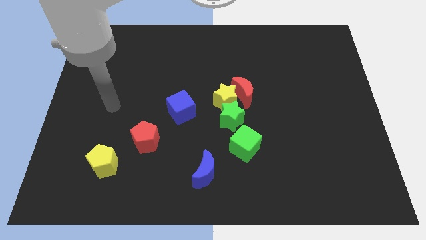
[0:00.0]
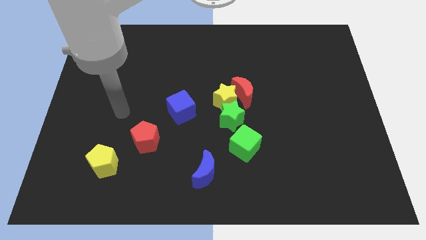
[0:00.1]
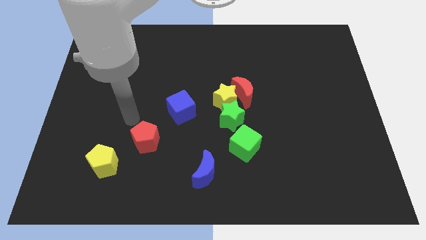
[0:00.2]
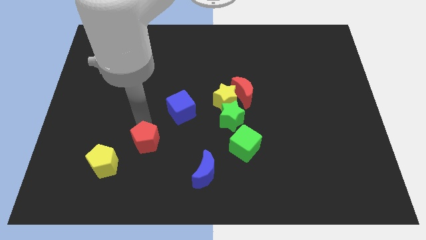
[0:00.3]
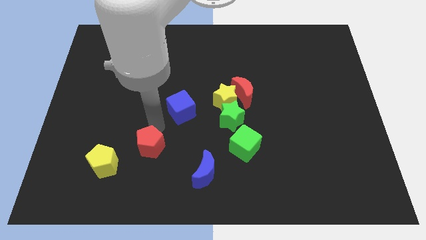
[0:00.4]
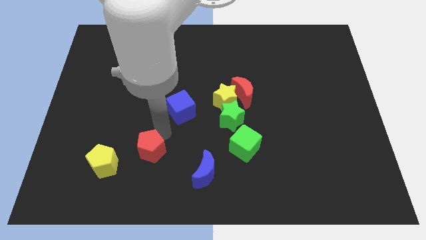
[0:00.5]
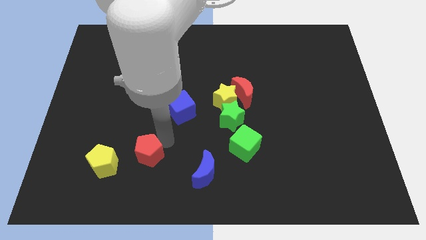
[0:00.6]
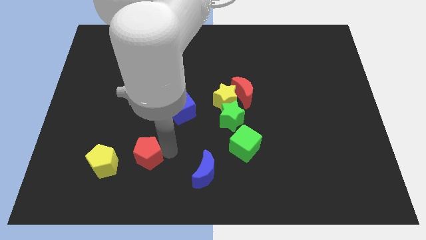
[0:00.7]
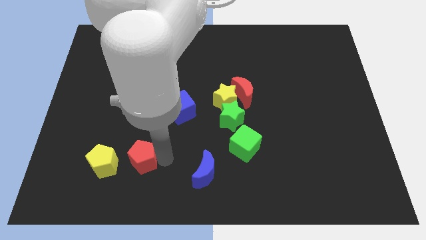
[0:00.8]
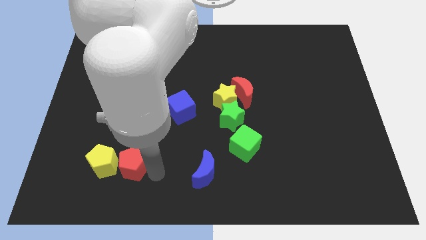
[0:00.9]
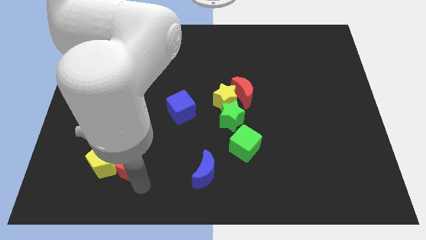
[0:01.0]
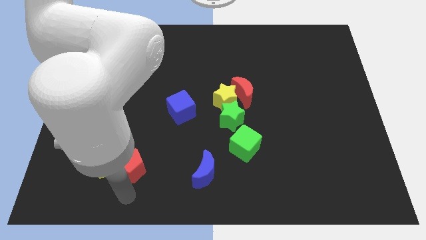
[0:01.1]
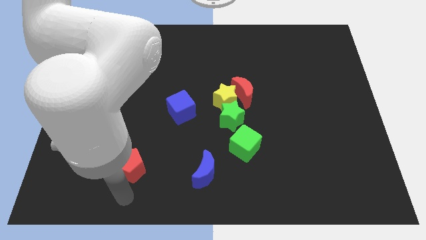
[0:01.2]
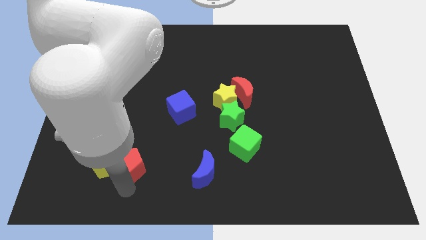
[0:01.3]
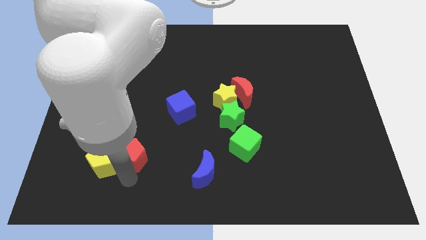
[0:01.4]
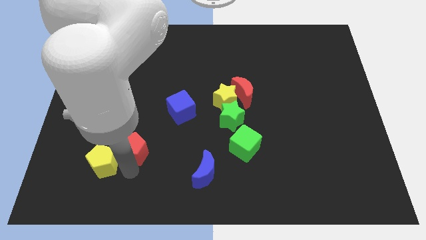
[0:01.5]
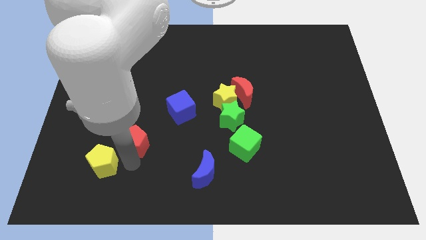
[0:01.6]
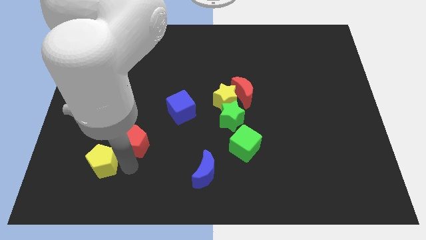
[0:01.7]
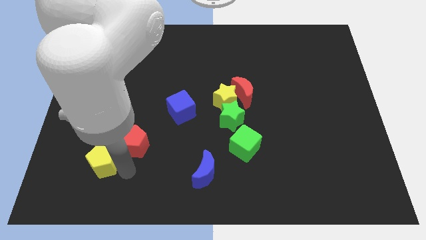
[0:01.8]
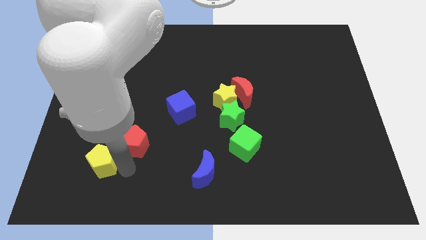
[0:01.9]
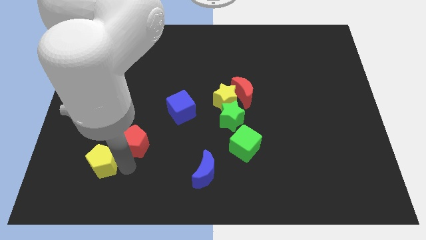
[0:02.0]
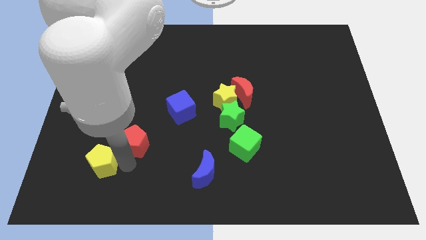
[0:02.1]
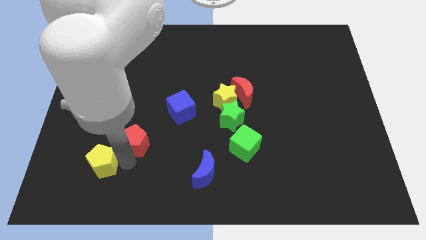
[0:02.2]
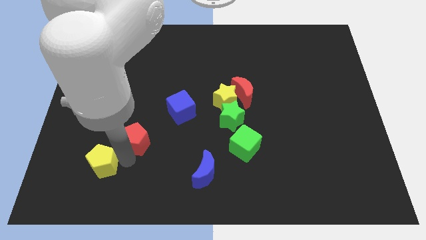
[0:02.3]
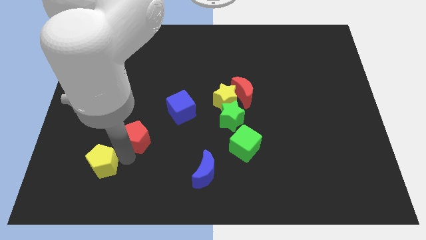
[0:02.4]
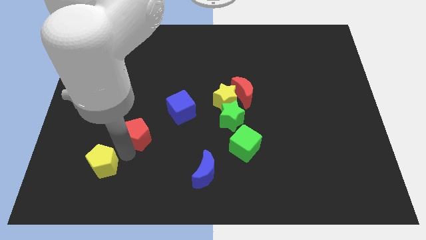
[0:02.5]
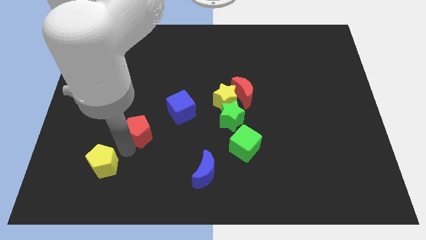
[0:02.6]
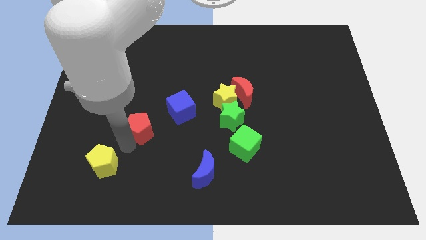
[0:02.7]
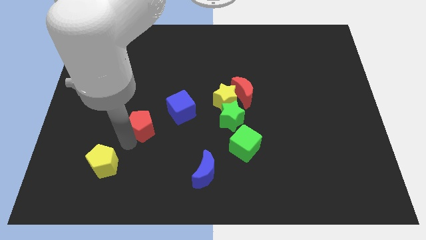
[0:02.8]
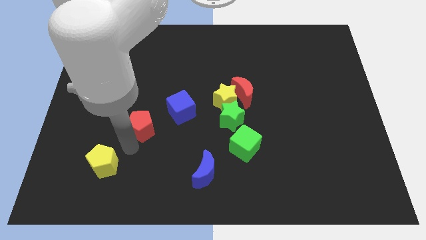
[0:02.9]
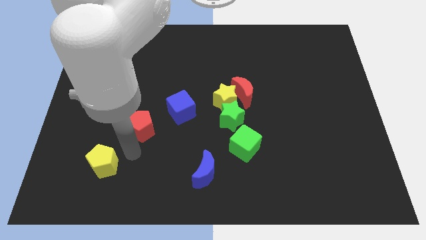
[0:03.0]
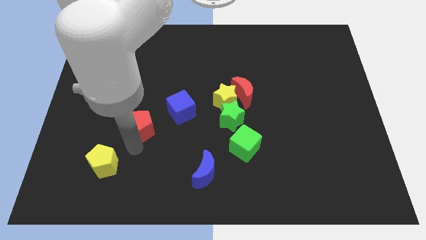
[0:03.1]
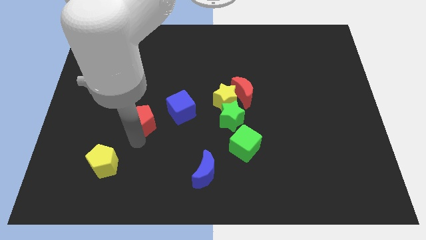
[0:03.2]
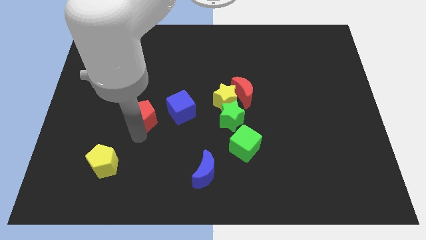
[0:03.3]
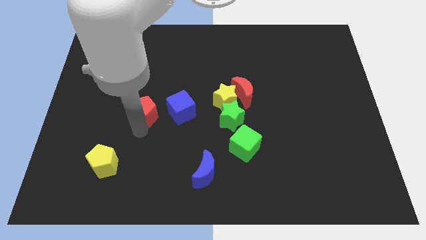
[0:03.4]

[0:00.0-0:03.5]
move the red pentagon somewhat upwards

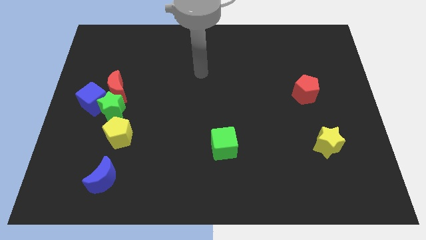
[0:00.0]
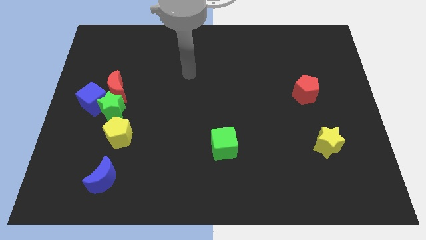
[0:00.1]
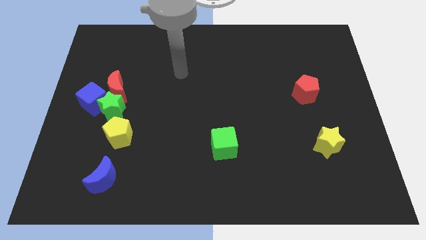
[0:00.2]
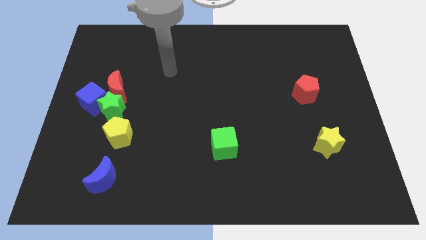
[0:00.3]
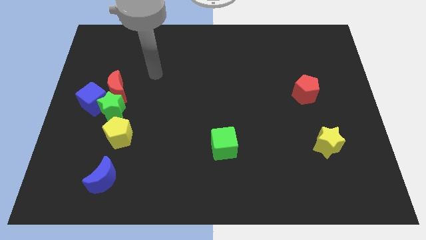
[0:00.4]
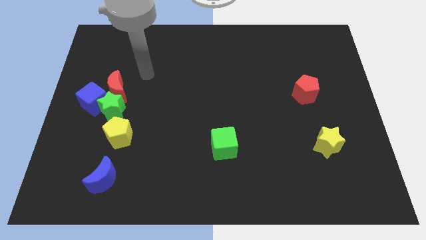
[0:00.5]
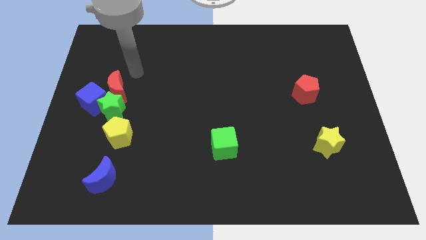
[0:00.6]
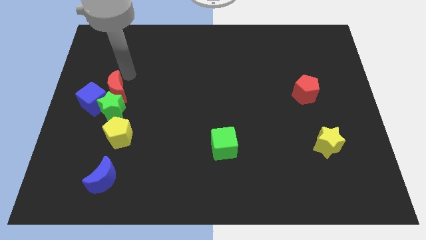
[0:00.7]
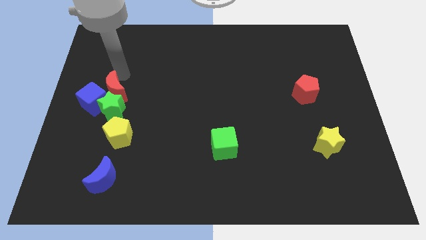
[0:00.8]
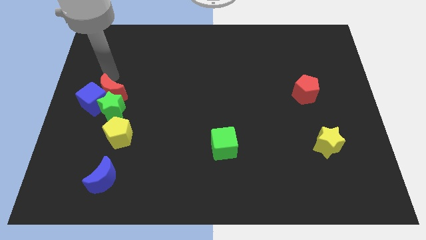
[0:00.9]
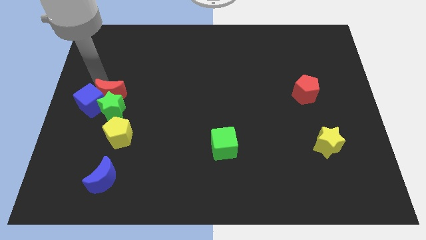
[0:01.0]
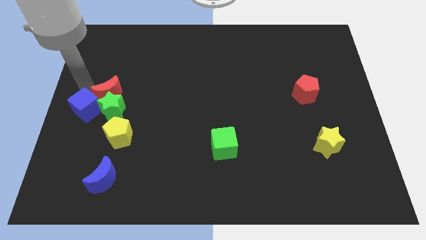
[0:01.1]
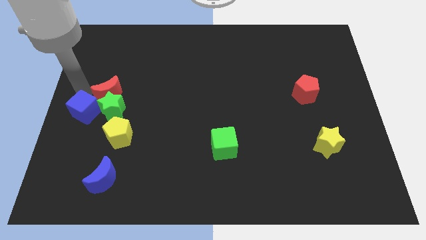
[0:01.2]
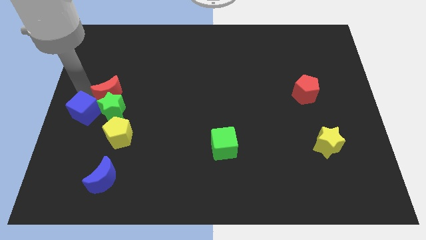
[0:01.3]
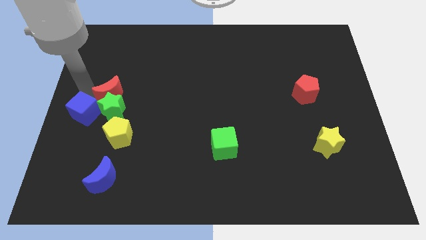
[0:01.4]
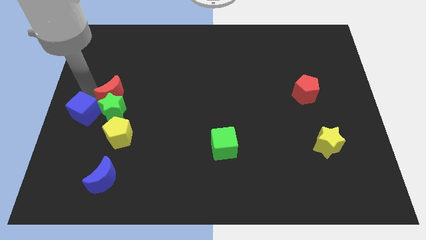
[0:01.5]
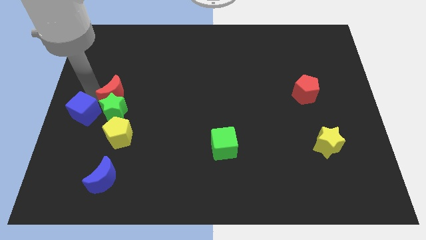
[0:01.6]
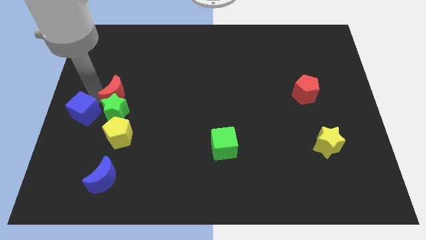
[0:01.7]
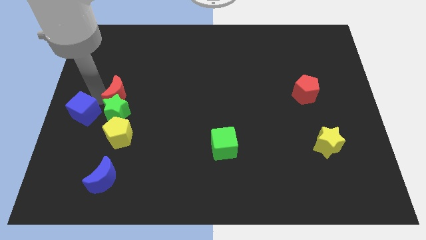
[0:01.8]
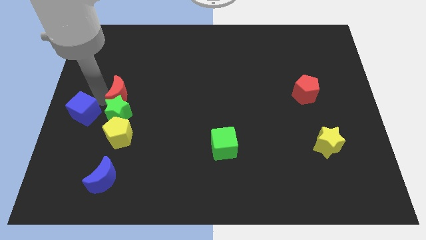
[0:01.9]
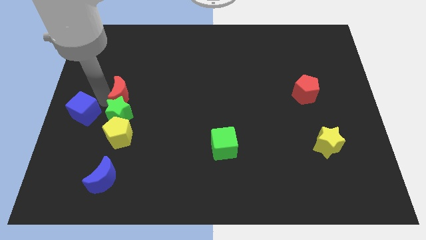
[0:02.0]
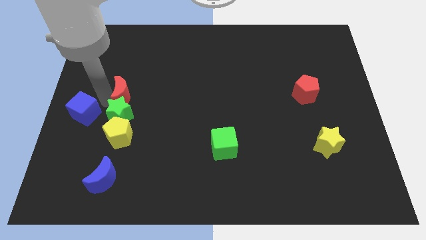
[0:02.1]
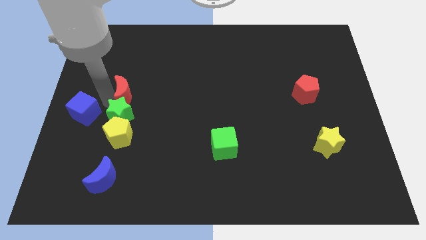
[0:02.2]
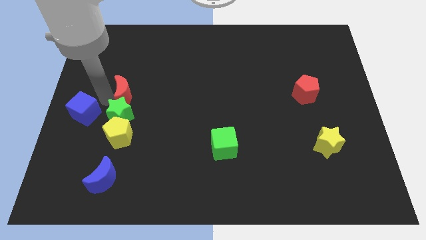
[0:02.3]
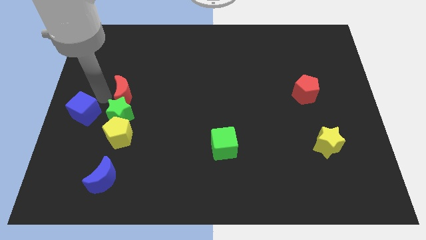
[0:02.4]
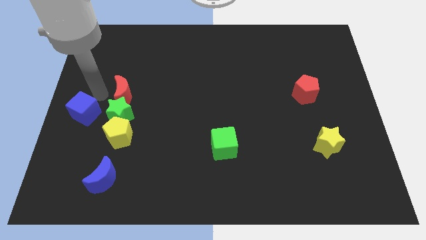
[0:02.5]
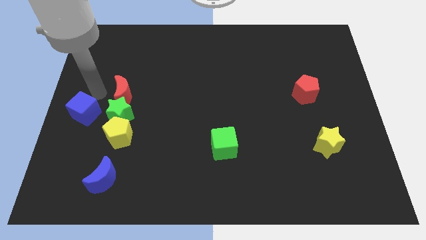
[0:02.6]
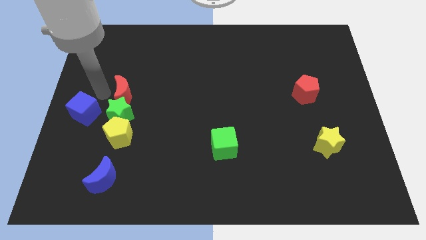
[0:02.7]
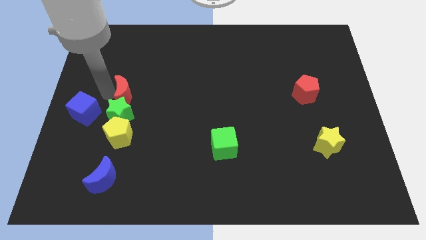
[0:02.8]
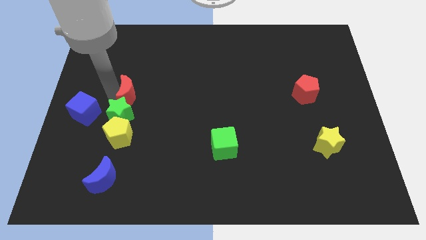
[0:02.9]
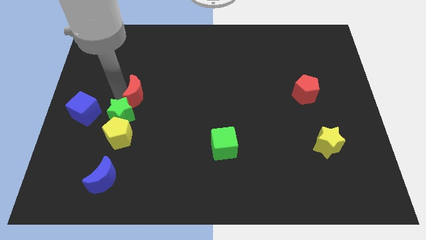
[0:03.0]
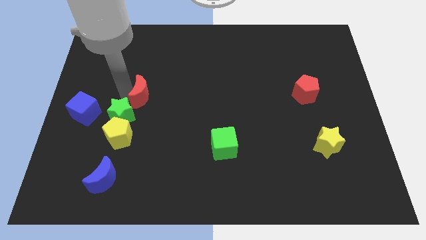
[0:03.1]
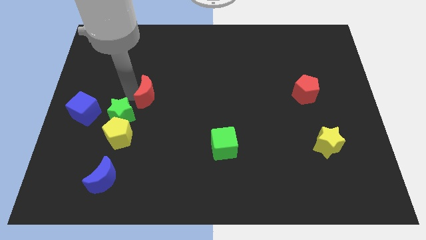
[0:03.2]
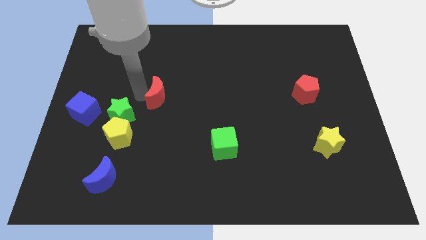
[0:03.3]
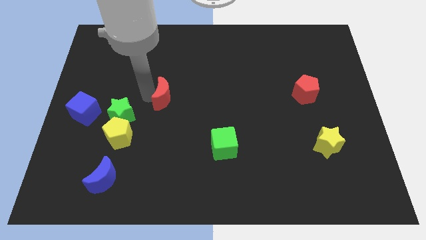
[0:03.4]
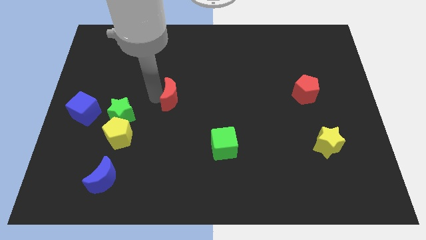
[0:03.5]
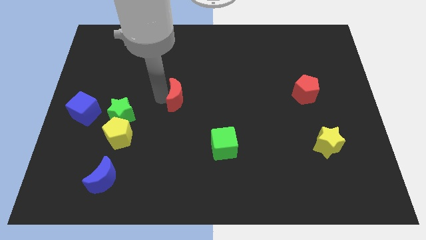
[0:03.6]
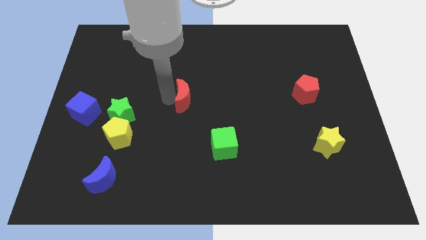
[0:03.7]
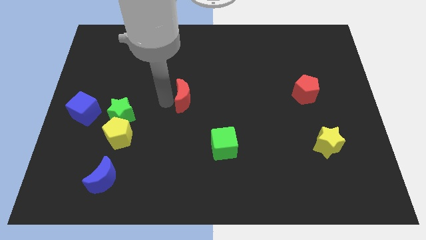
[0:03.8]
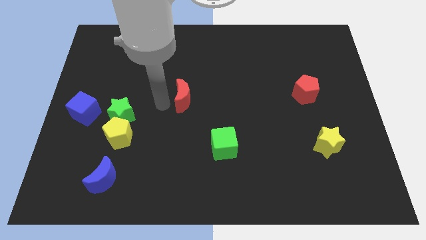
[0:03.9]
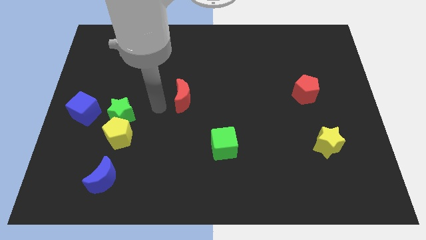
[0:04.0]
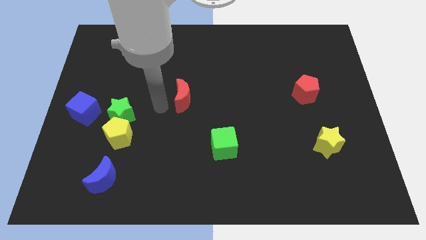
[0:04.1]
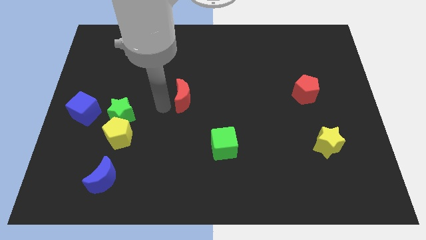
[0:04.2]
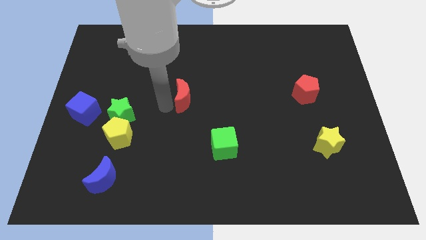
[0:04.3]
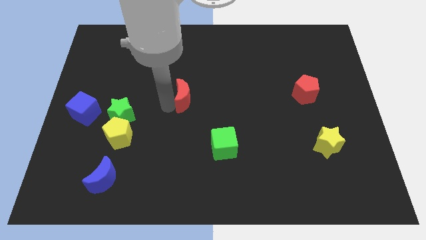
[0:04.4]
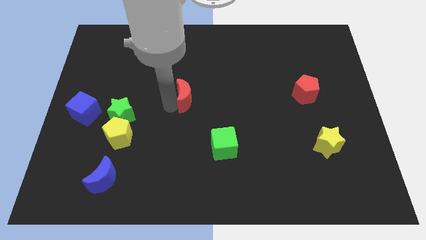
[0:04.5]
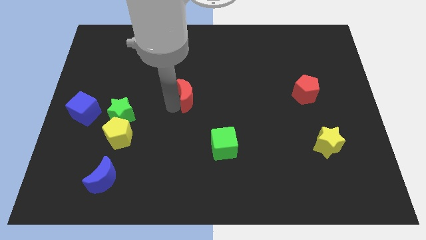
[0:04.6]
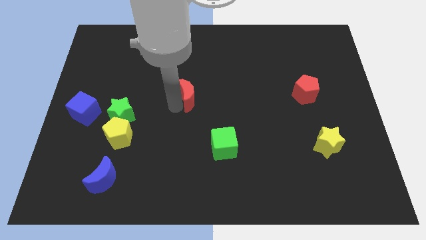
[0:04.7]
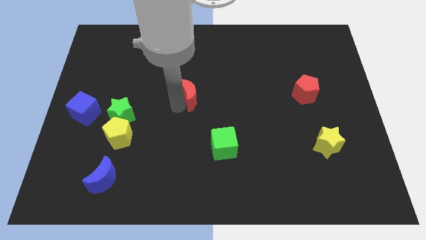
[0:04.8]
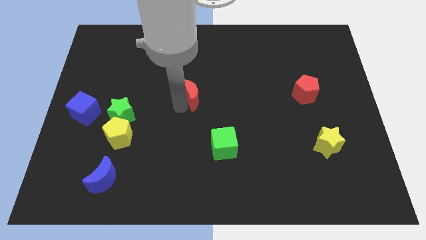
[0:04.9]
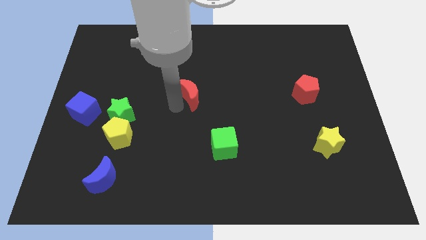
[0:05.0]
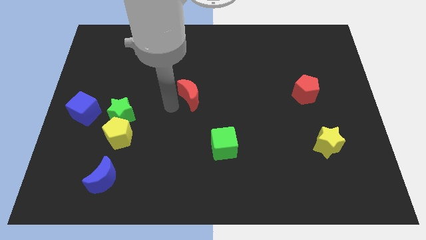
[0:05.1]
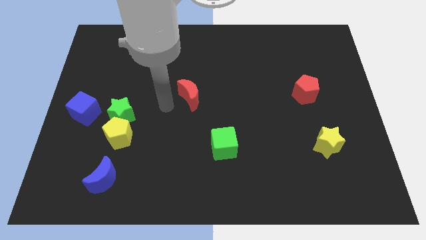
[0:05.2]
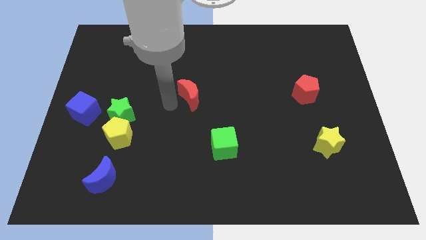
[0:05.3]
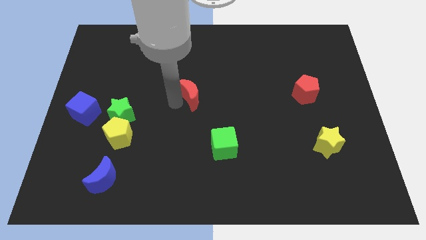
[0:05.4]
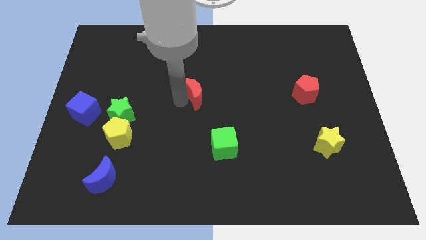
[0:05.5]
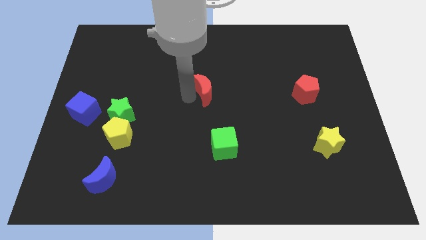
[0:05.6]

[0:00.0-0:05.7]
slide the red moon right
